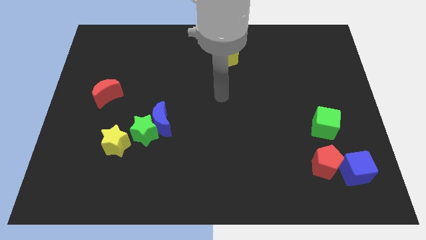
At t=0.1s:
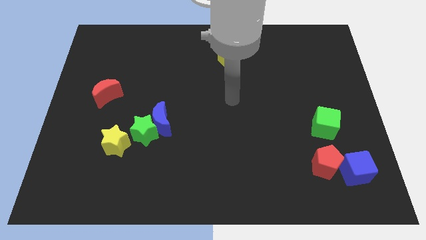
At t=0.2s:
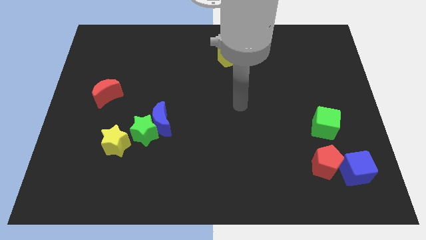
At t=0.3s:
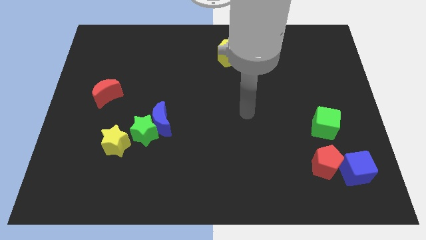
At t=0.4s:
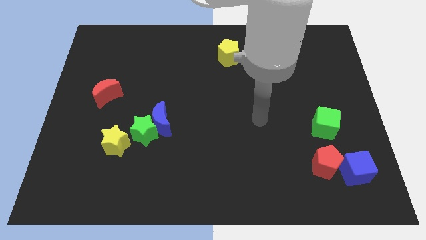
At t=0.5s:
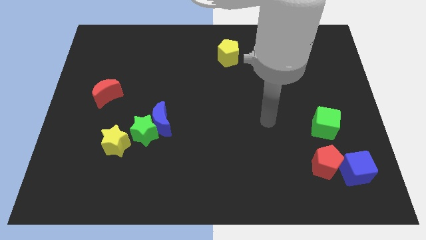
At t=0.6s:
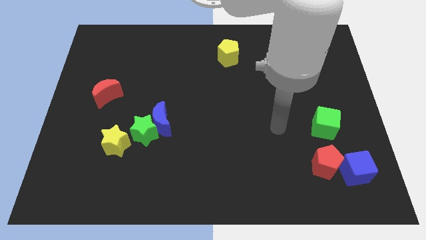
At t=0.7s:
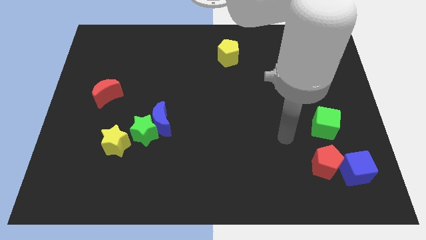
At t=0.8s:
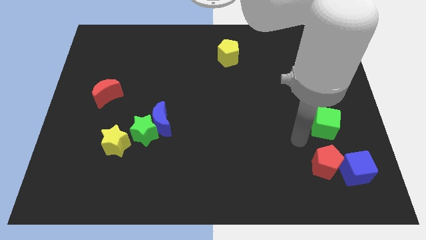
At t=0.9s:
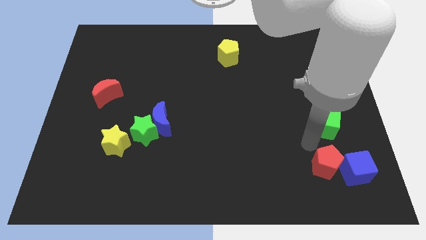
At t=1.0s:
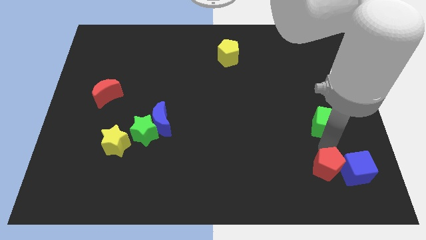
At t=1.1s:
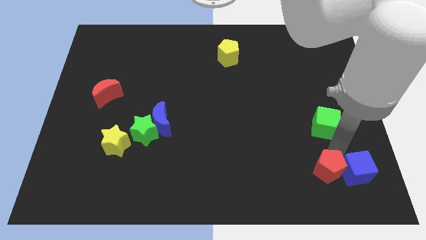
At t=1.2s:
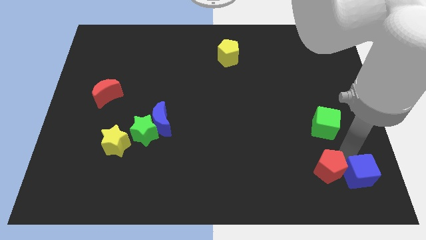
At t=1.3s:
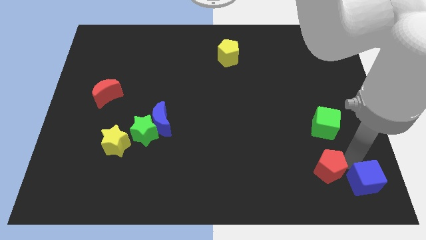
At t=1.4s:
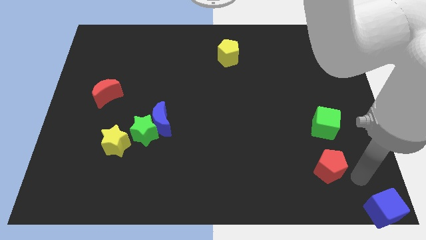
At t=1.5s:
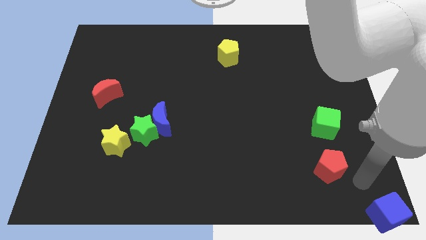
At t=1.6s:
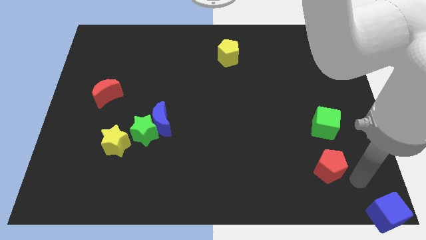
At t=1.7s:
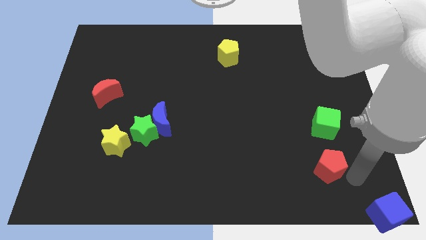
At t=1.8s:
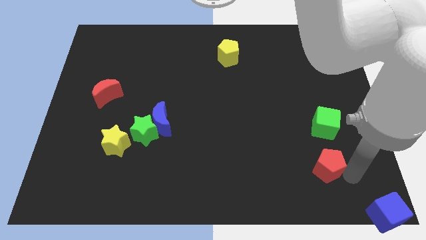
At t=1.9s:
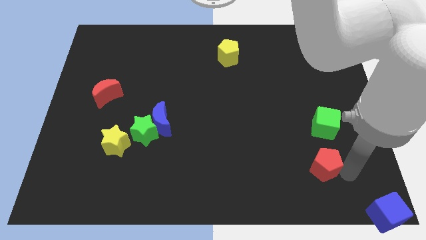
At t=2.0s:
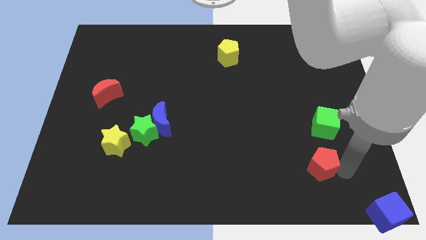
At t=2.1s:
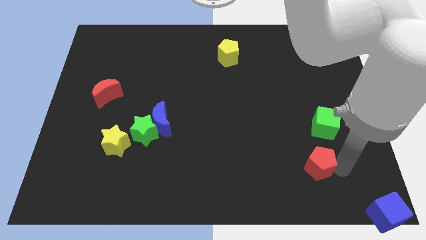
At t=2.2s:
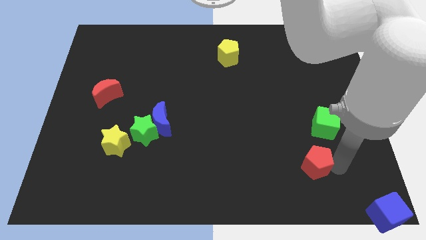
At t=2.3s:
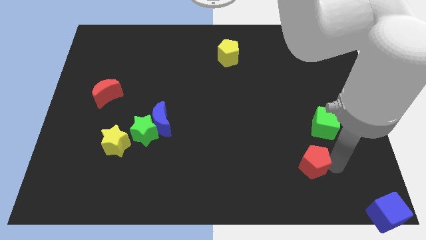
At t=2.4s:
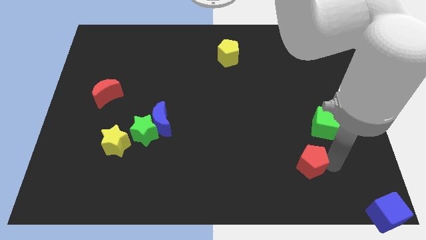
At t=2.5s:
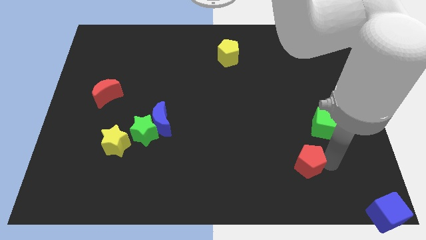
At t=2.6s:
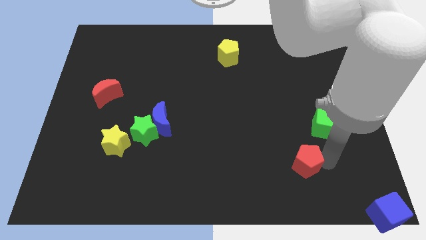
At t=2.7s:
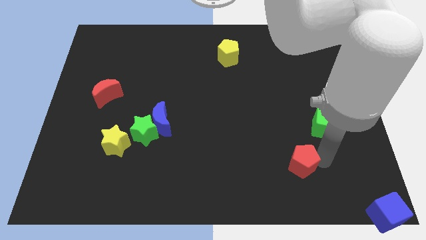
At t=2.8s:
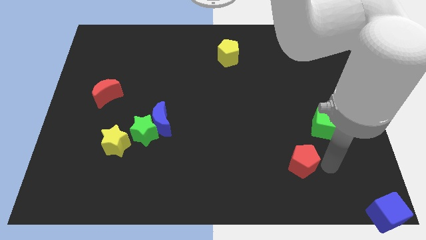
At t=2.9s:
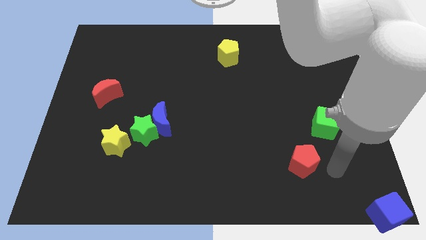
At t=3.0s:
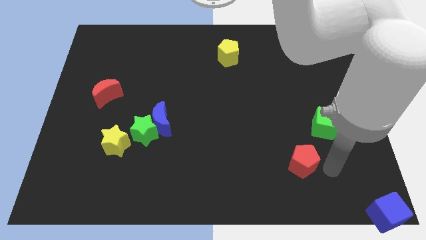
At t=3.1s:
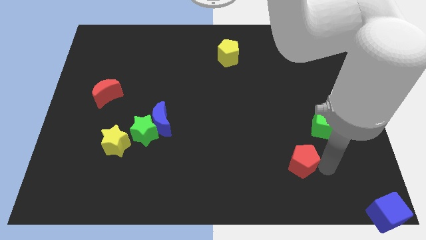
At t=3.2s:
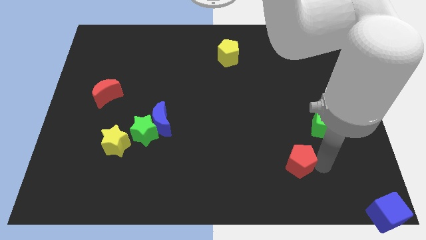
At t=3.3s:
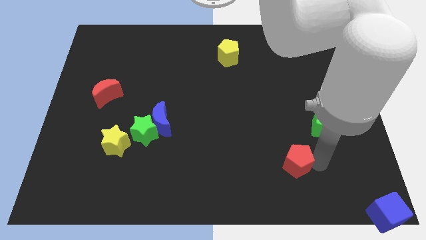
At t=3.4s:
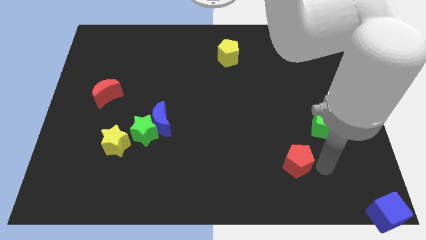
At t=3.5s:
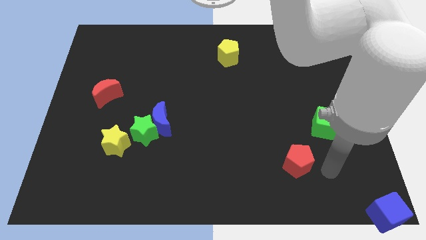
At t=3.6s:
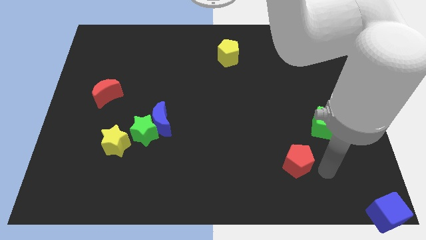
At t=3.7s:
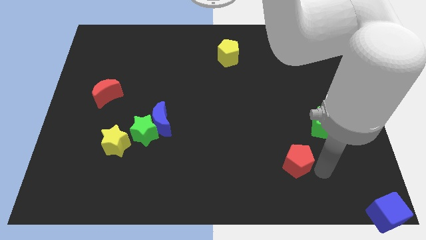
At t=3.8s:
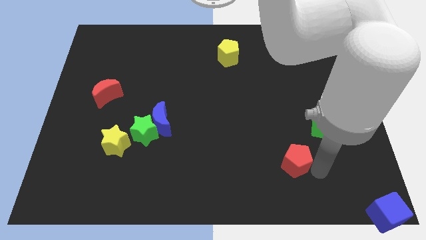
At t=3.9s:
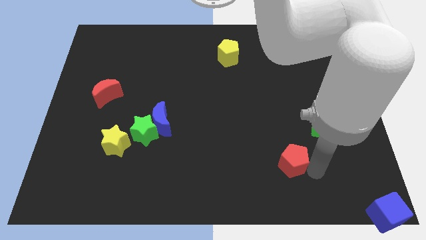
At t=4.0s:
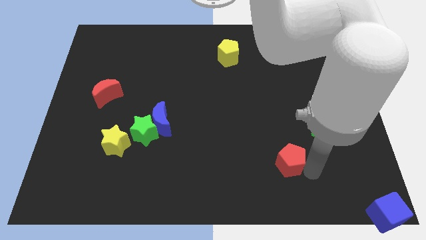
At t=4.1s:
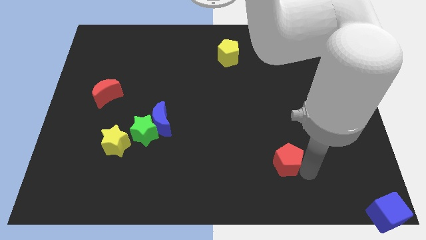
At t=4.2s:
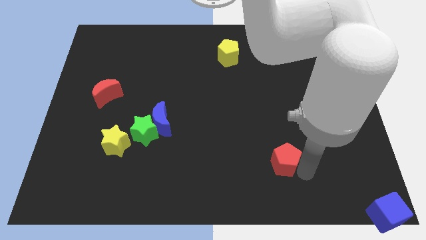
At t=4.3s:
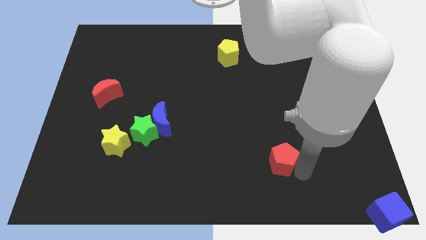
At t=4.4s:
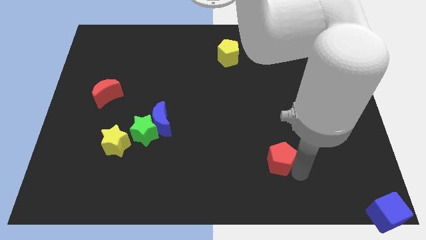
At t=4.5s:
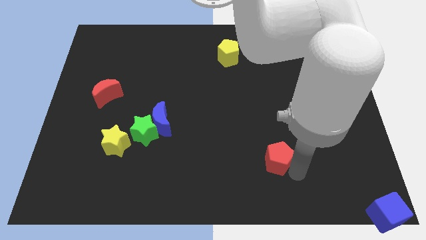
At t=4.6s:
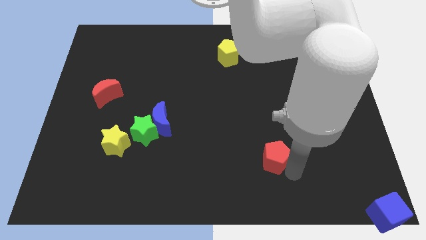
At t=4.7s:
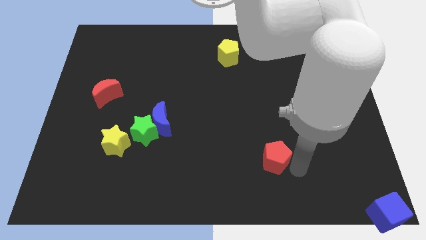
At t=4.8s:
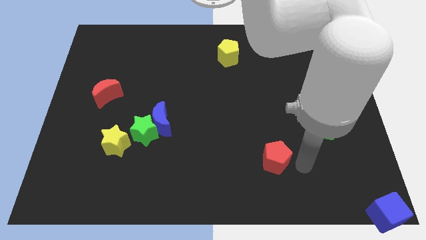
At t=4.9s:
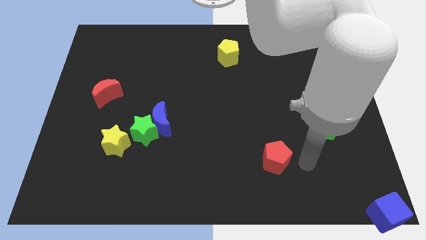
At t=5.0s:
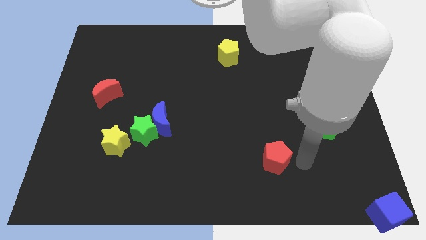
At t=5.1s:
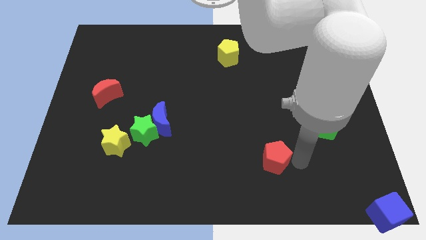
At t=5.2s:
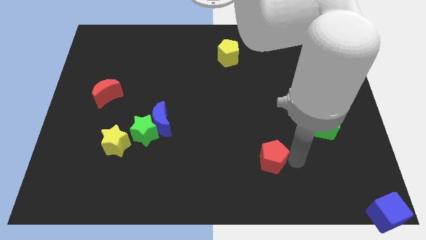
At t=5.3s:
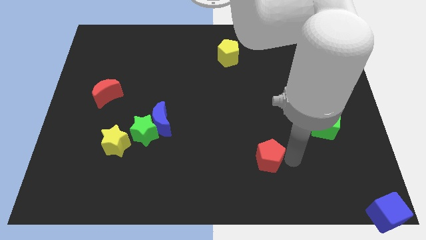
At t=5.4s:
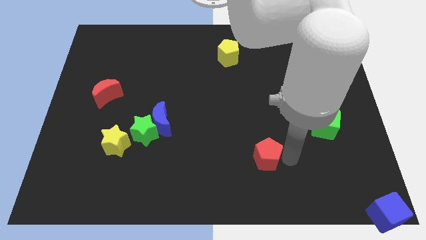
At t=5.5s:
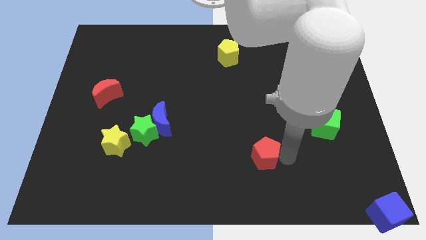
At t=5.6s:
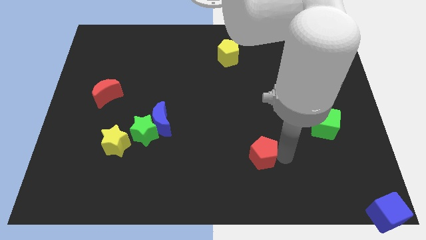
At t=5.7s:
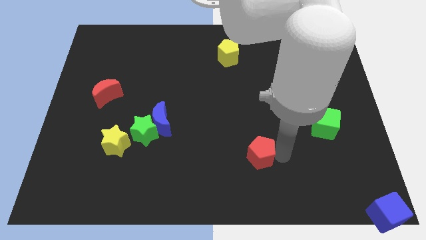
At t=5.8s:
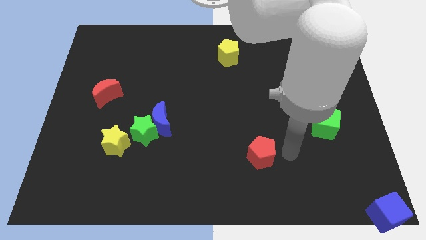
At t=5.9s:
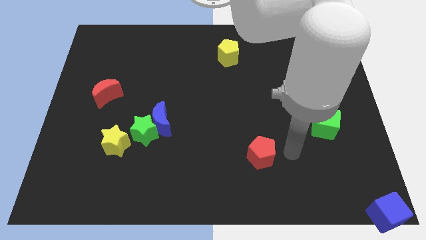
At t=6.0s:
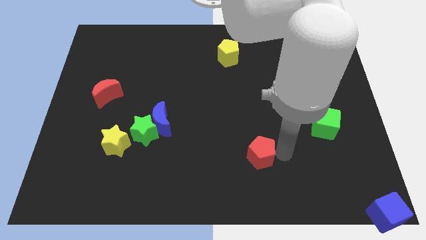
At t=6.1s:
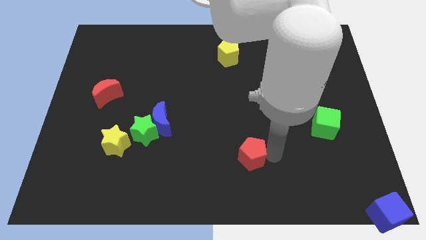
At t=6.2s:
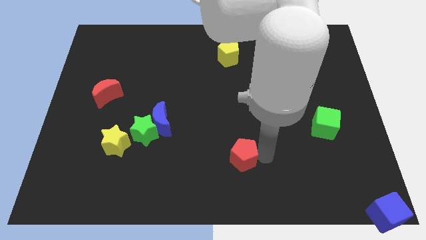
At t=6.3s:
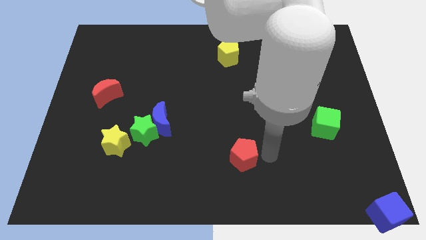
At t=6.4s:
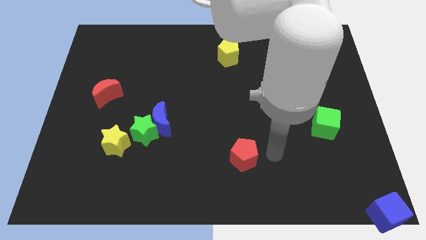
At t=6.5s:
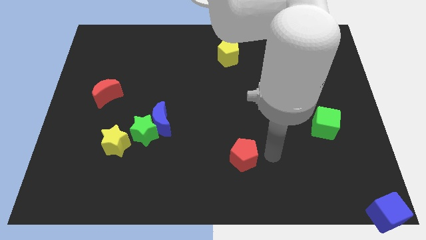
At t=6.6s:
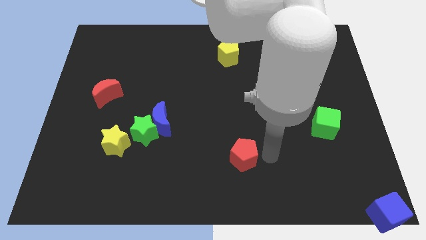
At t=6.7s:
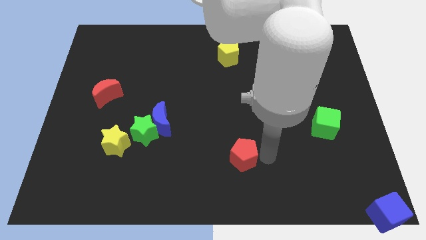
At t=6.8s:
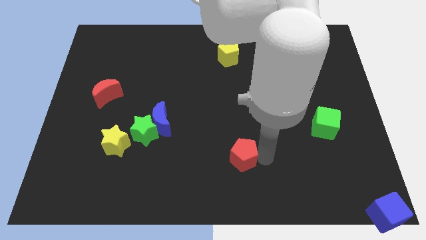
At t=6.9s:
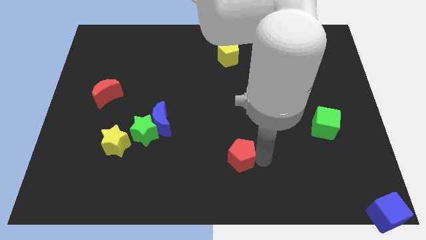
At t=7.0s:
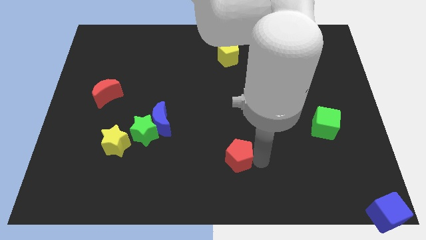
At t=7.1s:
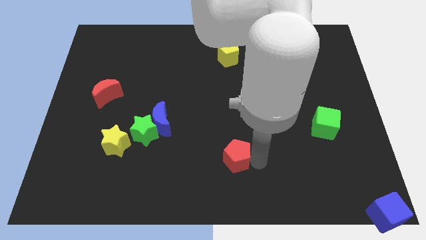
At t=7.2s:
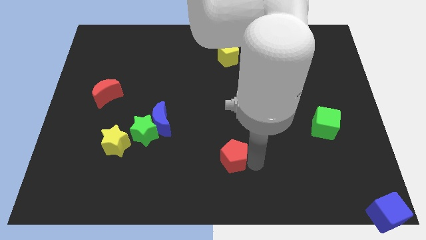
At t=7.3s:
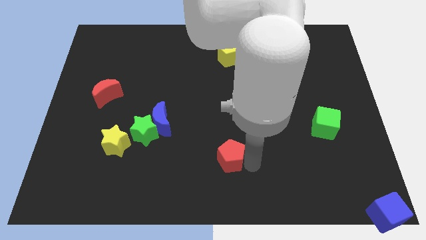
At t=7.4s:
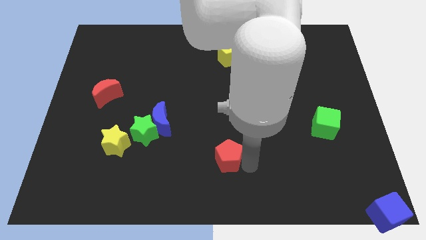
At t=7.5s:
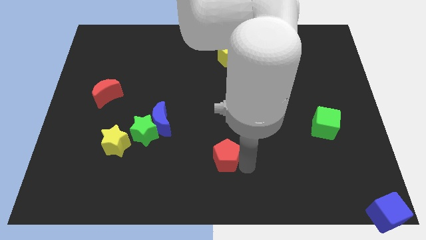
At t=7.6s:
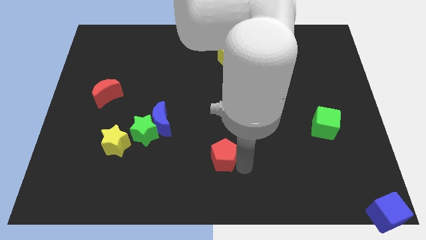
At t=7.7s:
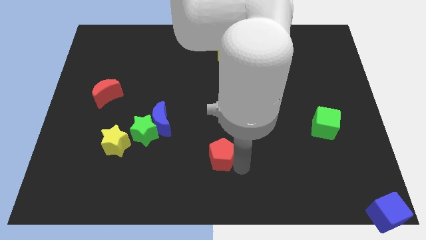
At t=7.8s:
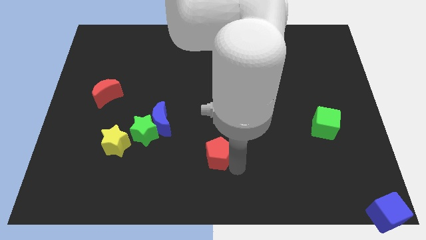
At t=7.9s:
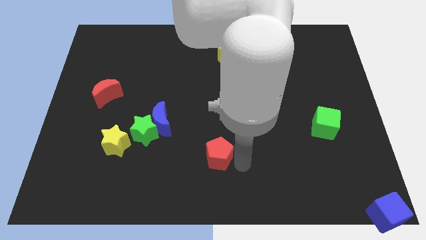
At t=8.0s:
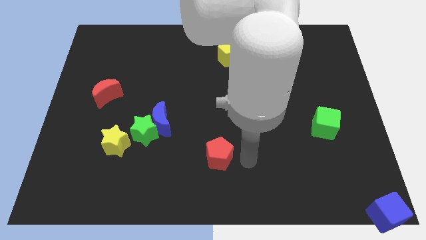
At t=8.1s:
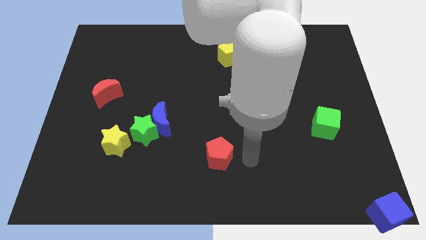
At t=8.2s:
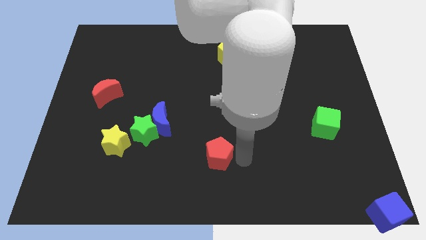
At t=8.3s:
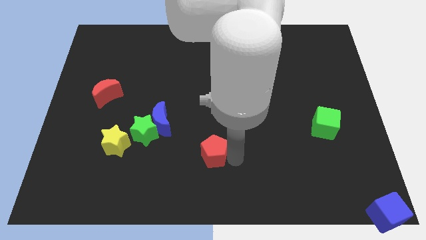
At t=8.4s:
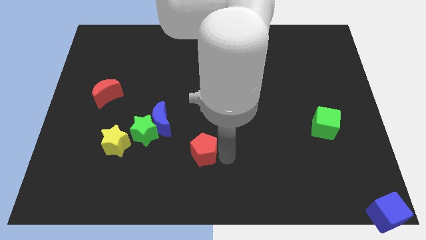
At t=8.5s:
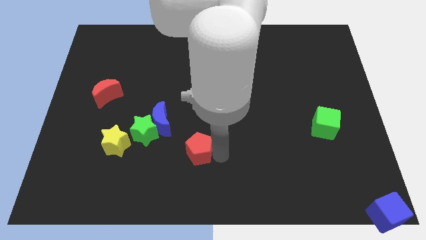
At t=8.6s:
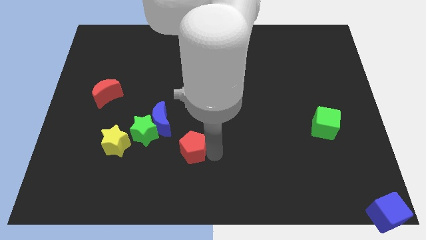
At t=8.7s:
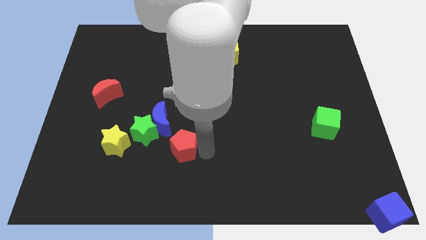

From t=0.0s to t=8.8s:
push the red pentagon to the bottom right side of the green star
